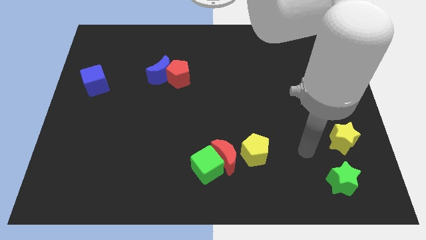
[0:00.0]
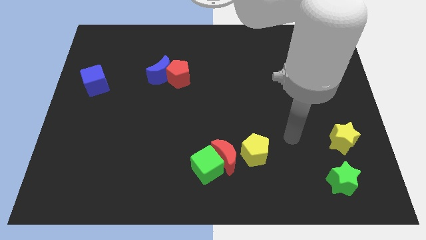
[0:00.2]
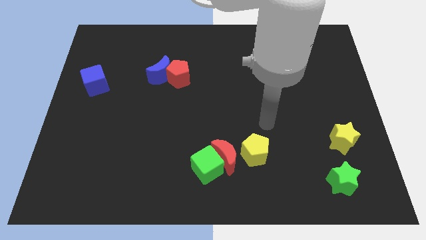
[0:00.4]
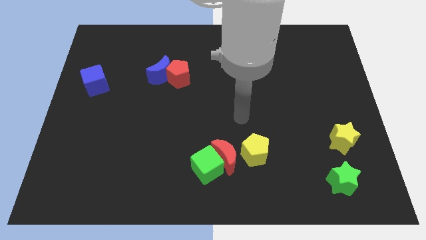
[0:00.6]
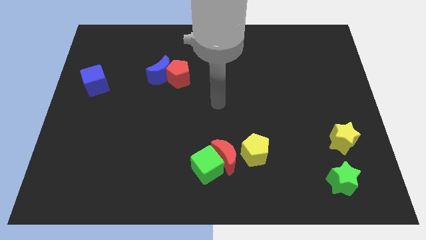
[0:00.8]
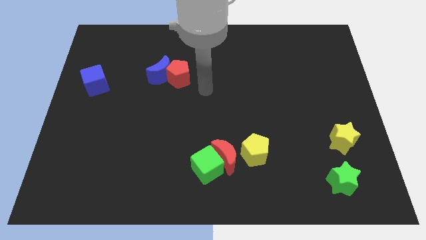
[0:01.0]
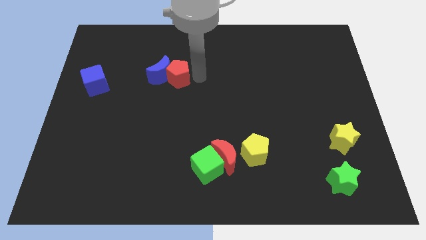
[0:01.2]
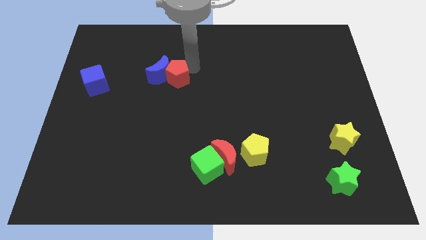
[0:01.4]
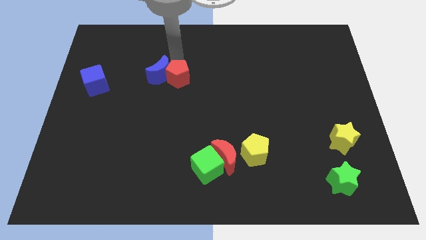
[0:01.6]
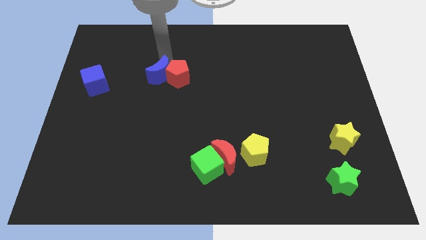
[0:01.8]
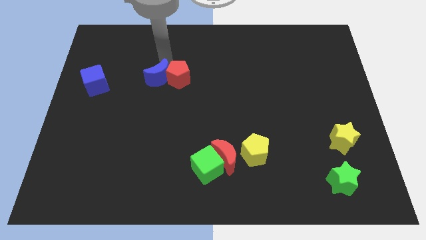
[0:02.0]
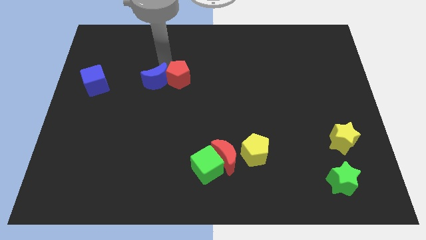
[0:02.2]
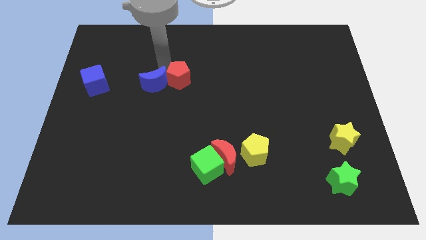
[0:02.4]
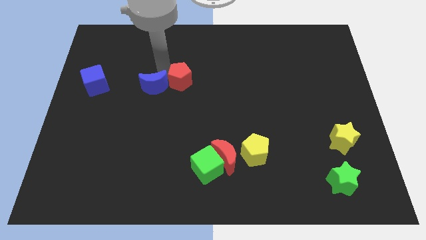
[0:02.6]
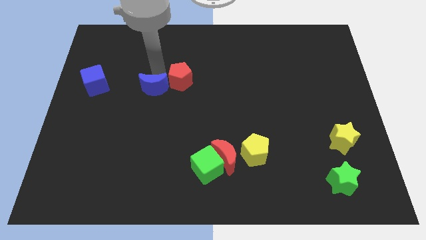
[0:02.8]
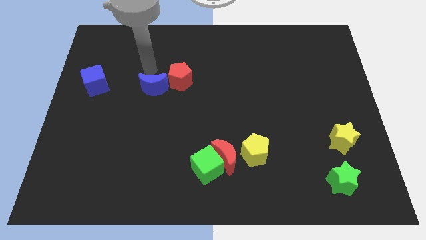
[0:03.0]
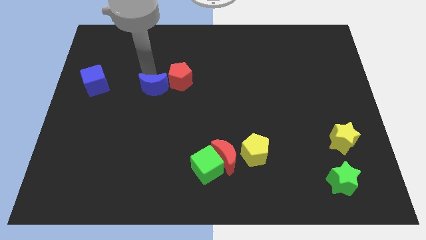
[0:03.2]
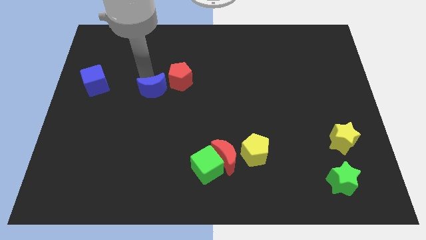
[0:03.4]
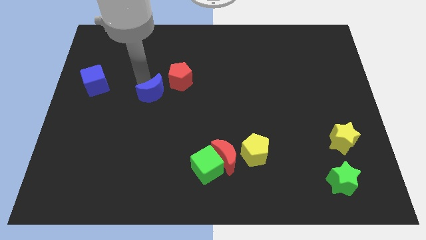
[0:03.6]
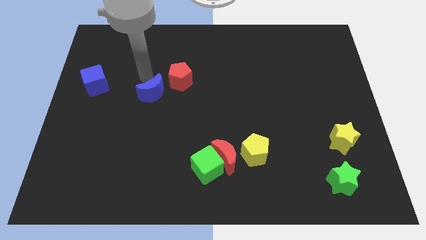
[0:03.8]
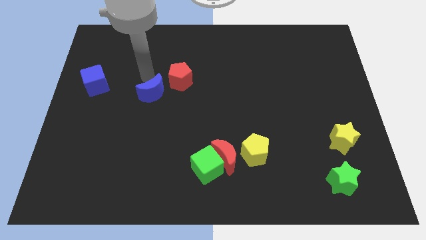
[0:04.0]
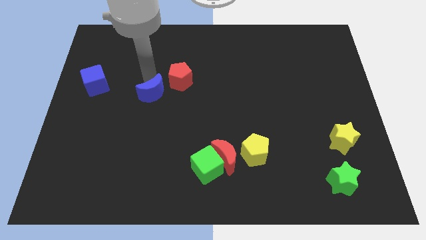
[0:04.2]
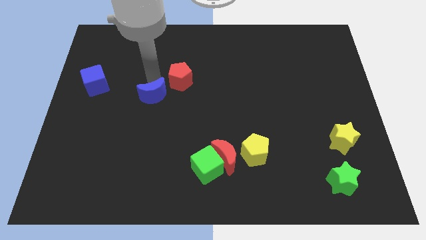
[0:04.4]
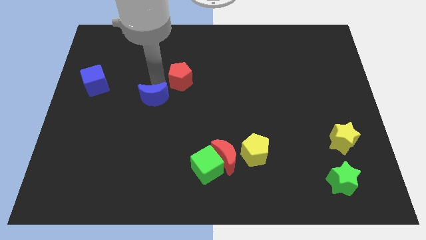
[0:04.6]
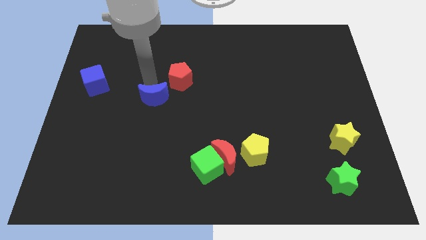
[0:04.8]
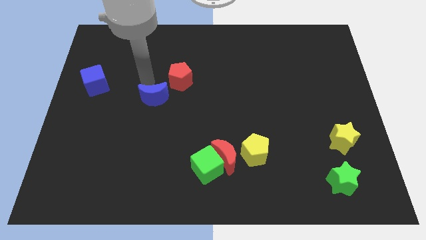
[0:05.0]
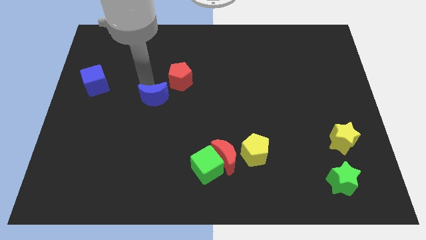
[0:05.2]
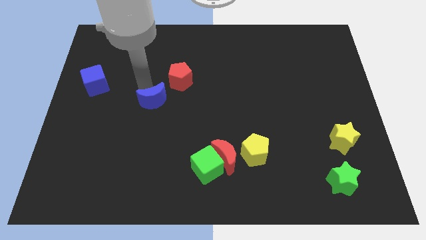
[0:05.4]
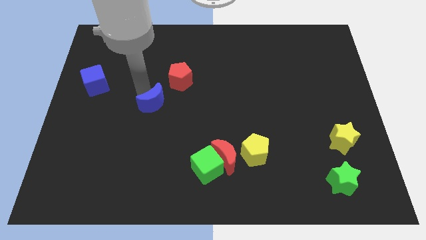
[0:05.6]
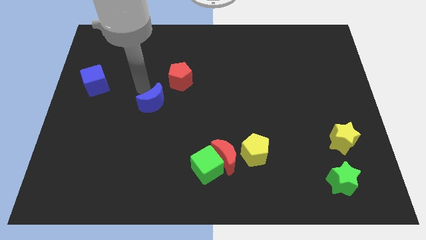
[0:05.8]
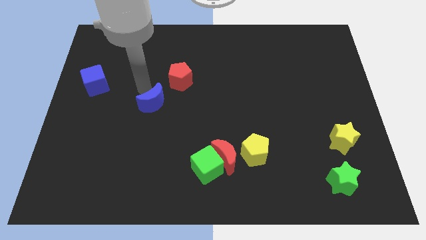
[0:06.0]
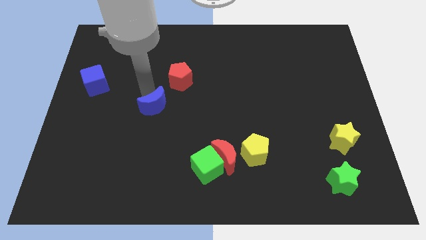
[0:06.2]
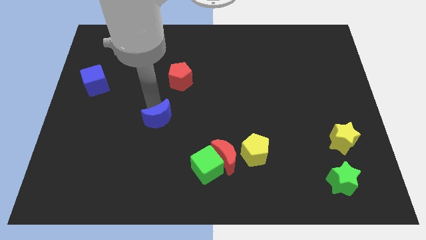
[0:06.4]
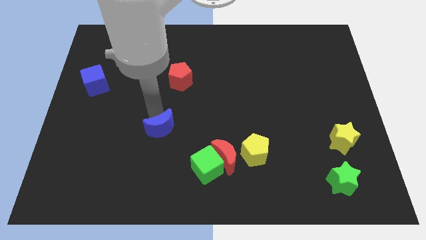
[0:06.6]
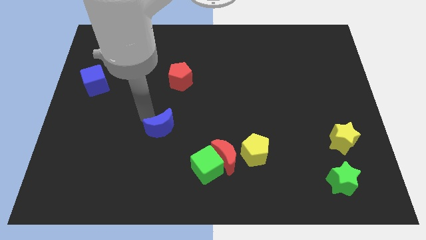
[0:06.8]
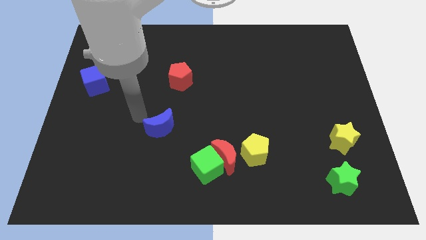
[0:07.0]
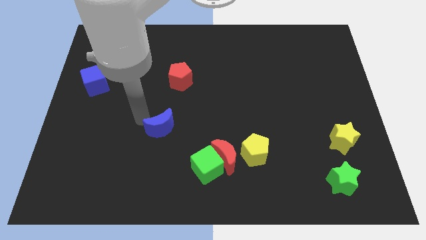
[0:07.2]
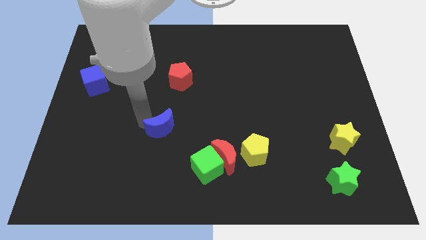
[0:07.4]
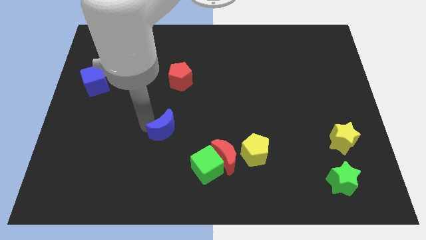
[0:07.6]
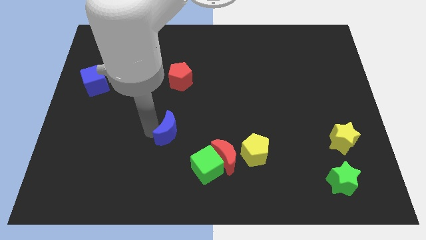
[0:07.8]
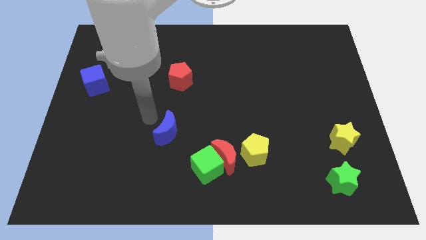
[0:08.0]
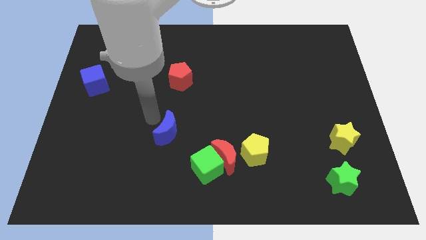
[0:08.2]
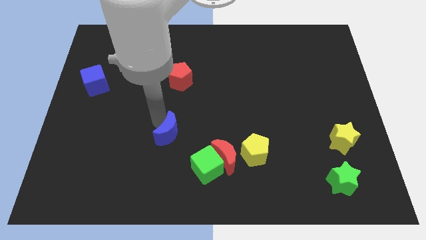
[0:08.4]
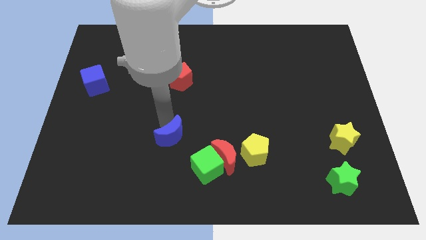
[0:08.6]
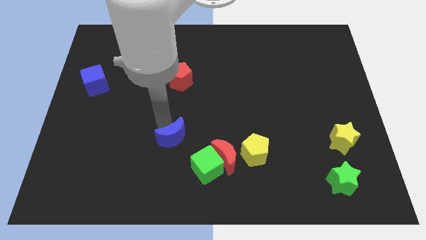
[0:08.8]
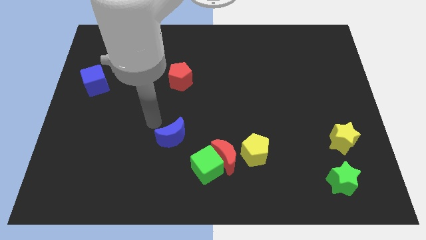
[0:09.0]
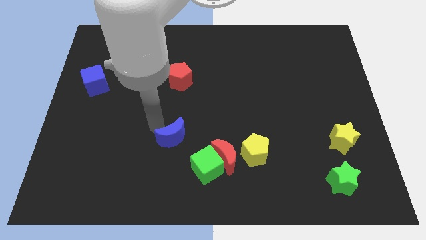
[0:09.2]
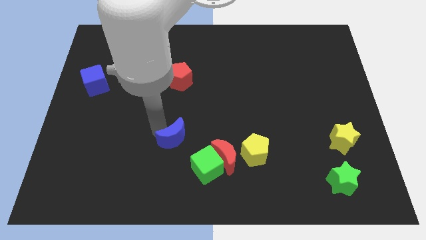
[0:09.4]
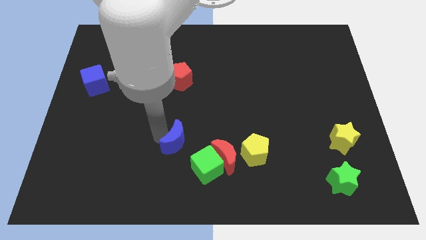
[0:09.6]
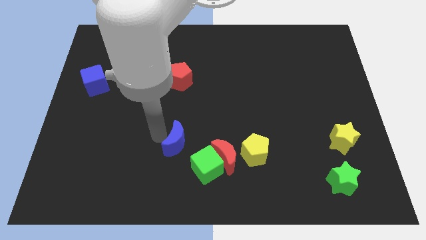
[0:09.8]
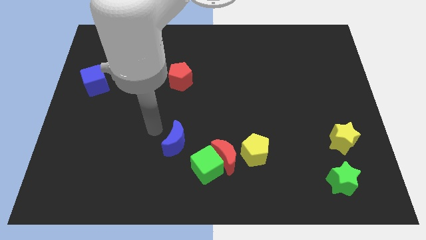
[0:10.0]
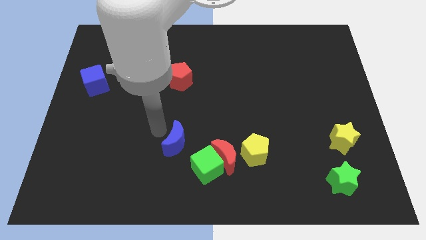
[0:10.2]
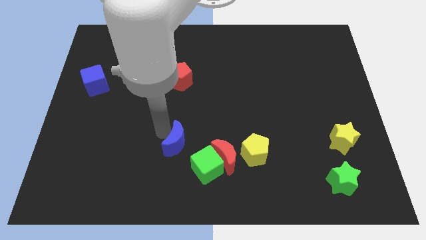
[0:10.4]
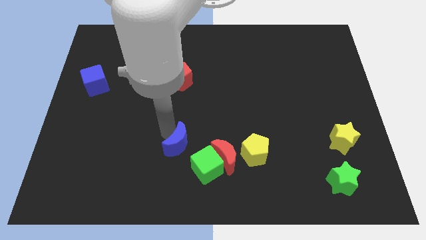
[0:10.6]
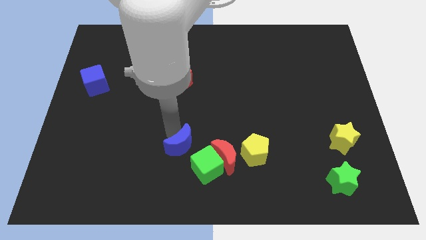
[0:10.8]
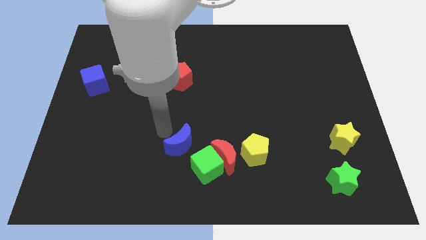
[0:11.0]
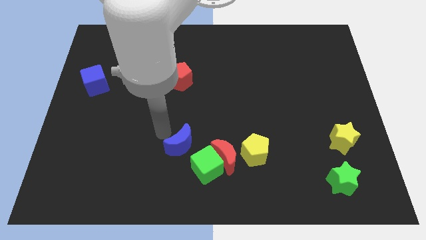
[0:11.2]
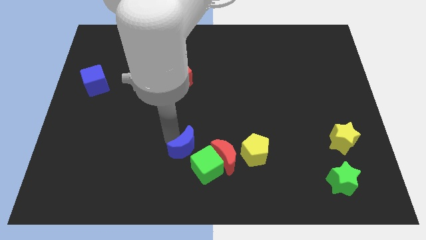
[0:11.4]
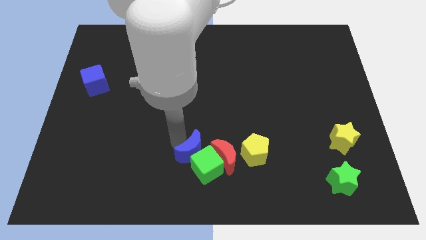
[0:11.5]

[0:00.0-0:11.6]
put the blue moon close to the green cube

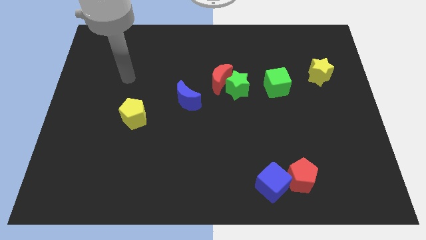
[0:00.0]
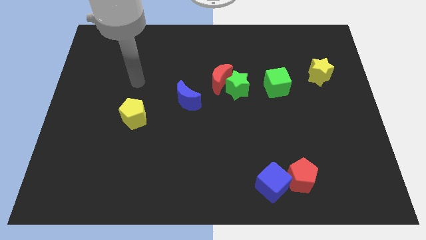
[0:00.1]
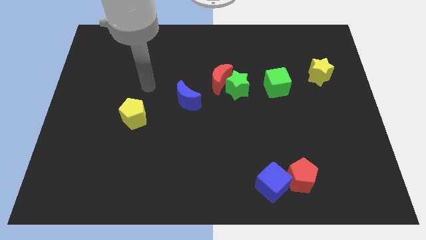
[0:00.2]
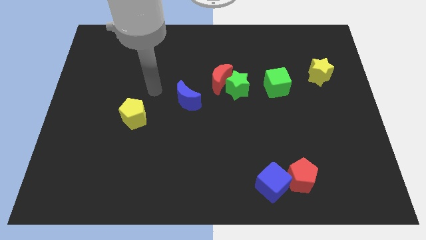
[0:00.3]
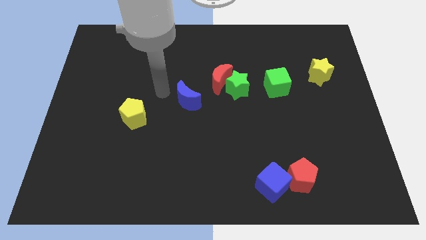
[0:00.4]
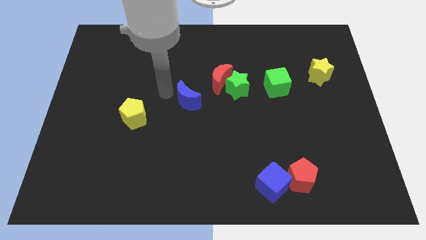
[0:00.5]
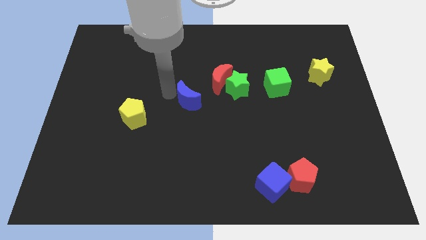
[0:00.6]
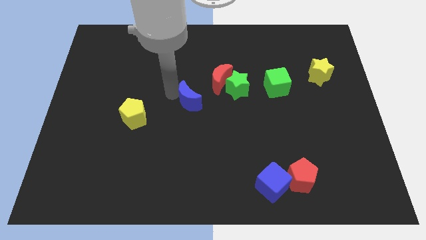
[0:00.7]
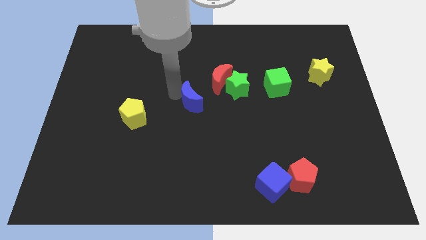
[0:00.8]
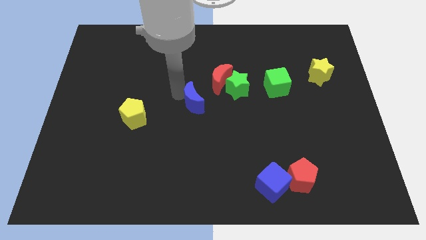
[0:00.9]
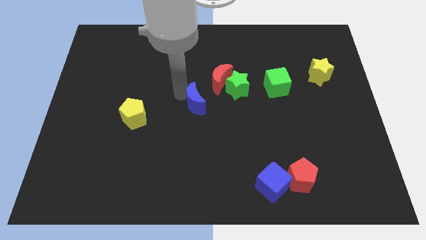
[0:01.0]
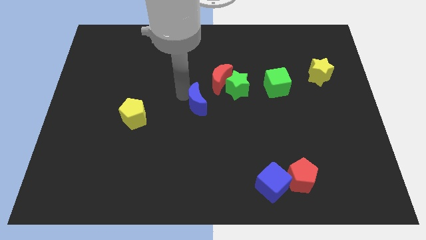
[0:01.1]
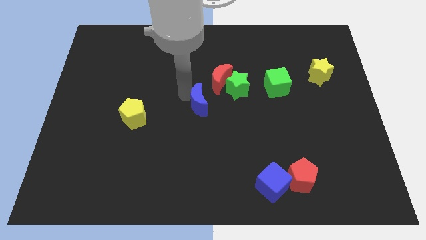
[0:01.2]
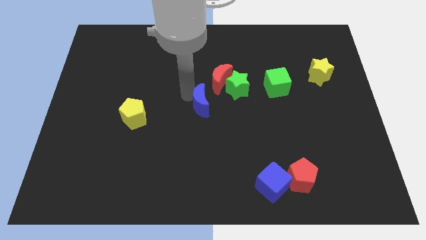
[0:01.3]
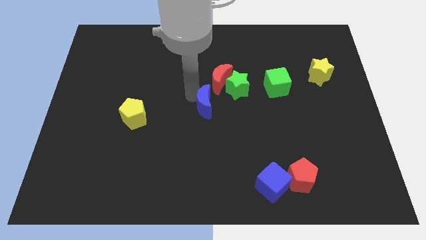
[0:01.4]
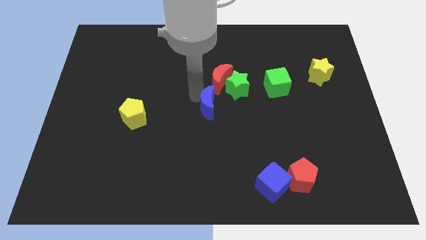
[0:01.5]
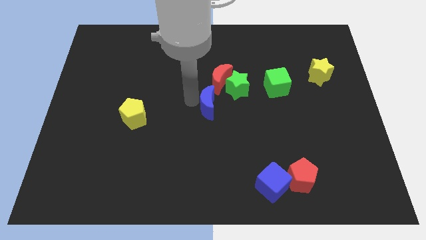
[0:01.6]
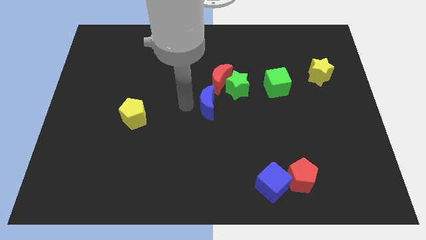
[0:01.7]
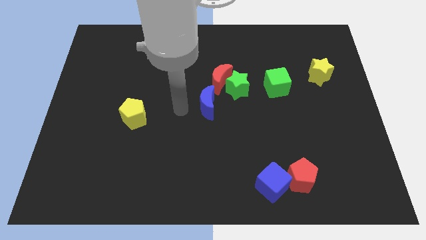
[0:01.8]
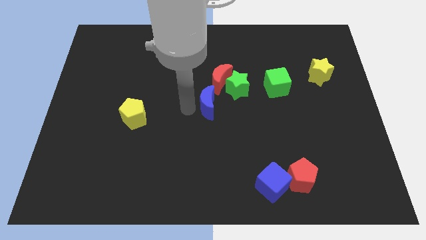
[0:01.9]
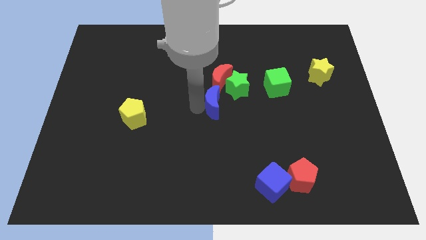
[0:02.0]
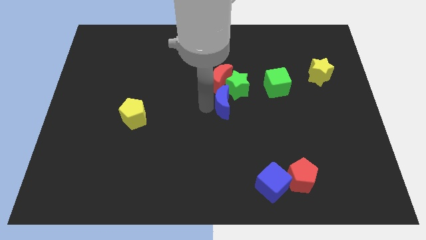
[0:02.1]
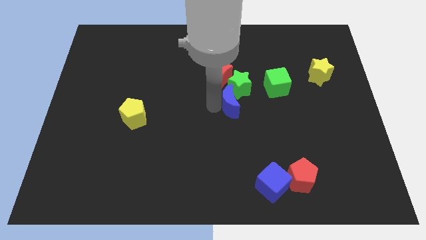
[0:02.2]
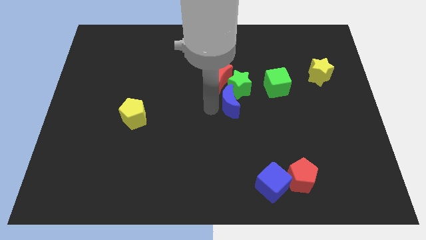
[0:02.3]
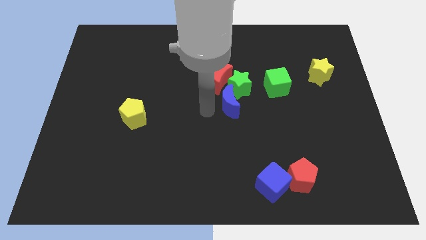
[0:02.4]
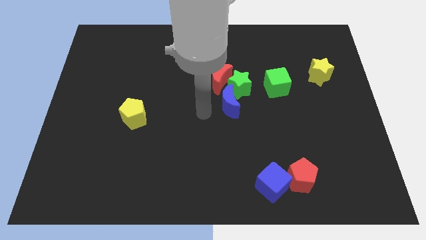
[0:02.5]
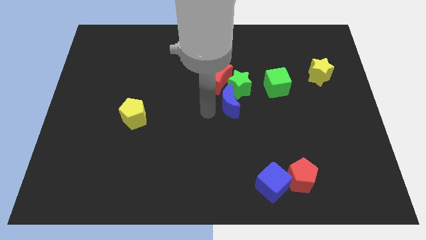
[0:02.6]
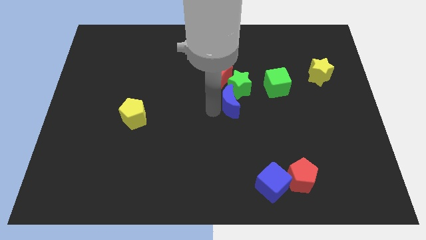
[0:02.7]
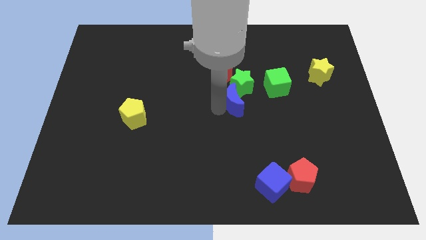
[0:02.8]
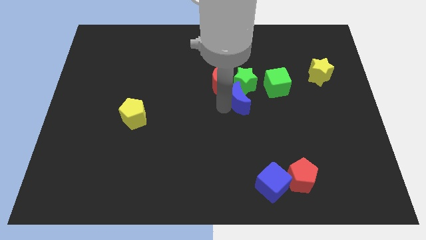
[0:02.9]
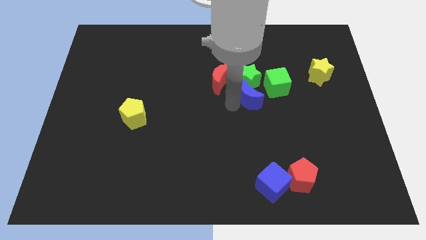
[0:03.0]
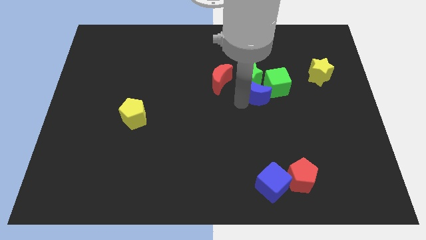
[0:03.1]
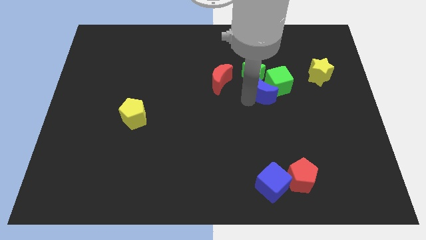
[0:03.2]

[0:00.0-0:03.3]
slide the blue moon to the green cube
